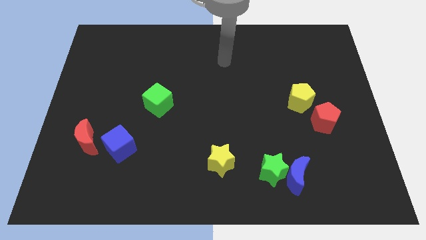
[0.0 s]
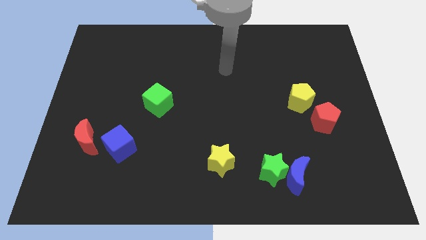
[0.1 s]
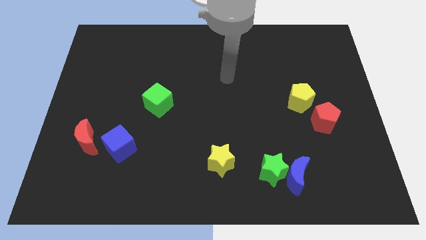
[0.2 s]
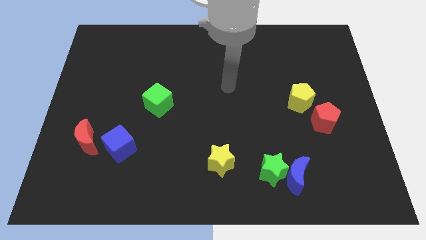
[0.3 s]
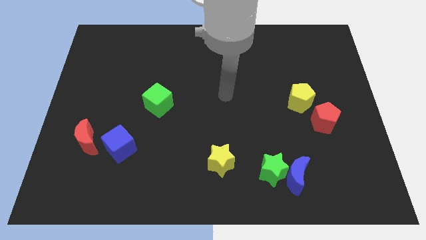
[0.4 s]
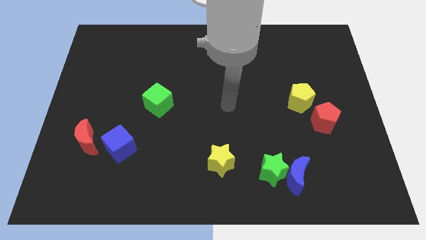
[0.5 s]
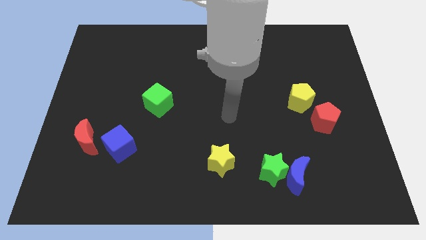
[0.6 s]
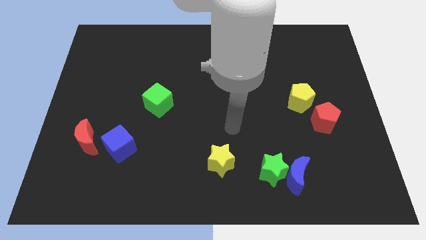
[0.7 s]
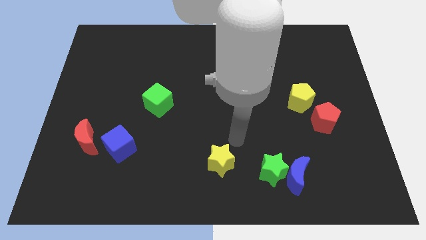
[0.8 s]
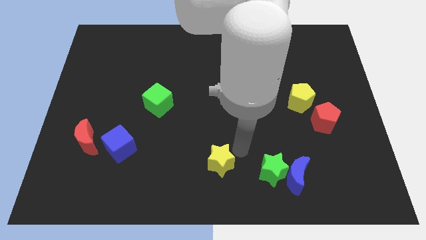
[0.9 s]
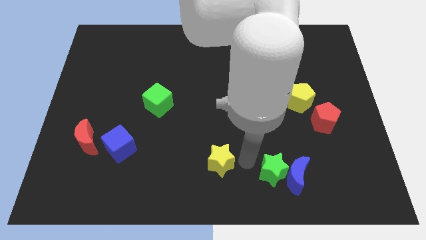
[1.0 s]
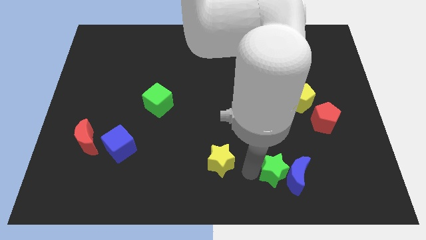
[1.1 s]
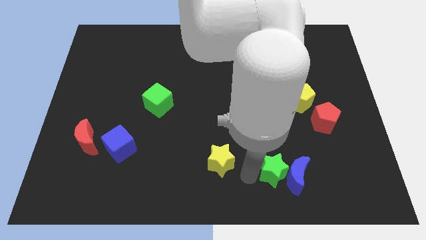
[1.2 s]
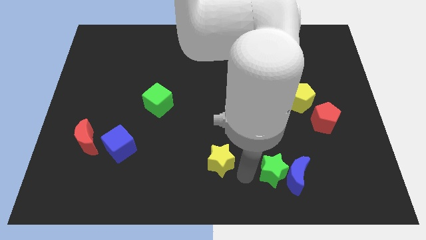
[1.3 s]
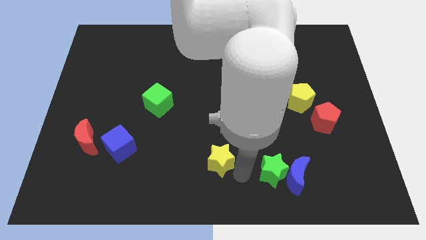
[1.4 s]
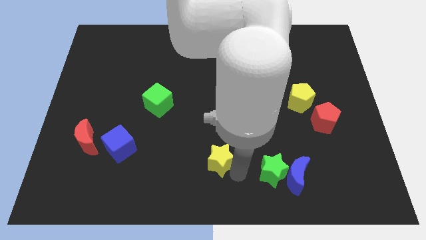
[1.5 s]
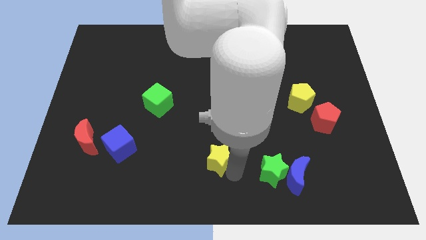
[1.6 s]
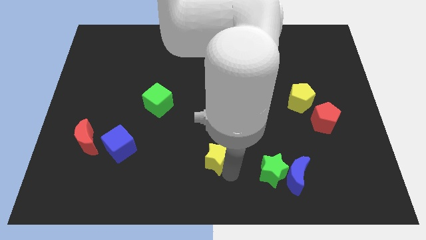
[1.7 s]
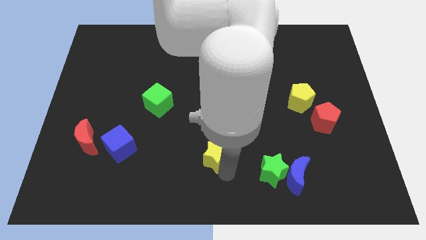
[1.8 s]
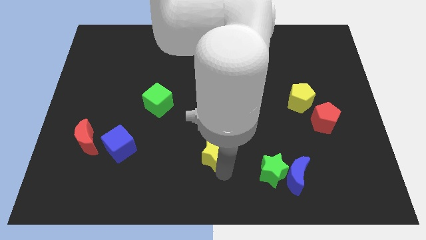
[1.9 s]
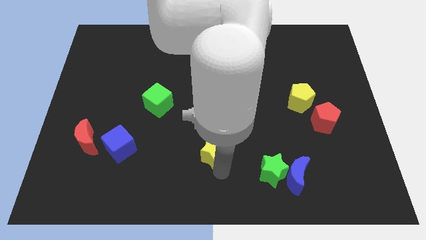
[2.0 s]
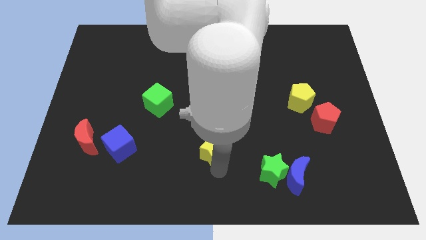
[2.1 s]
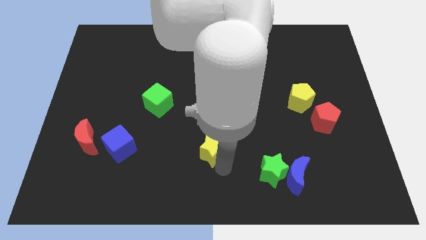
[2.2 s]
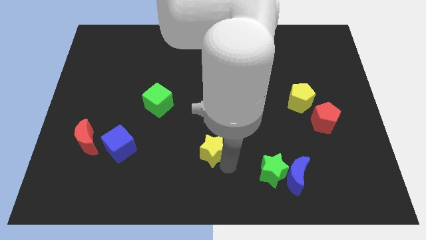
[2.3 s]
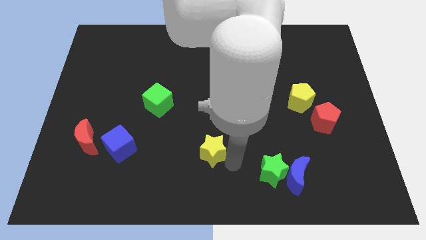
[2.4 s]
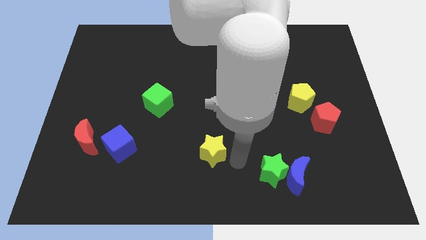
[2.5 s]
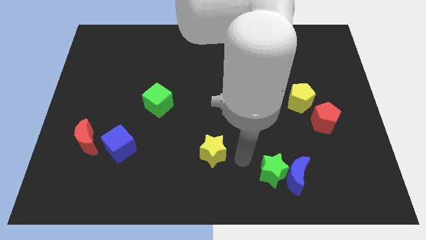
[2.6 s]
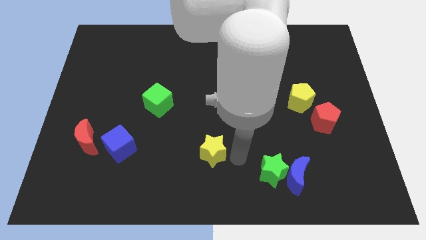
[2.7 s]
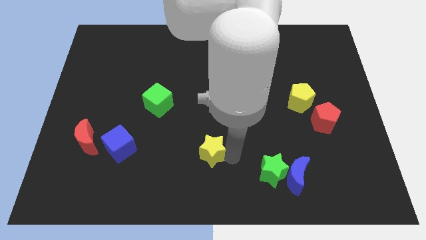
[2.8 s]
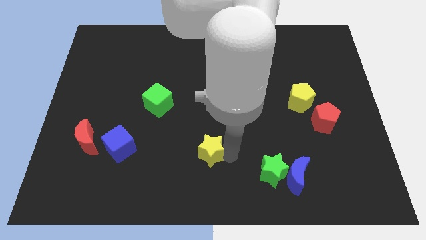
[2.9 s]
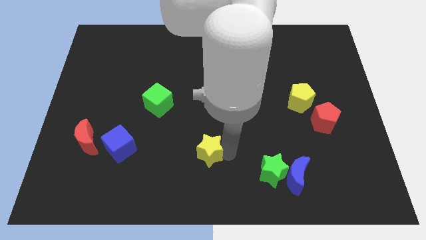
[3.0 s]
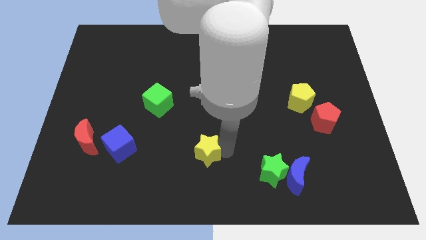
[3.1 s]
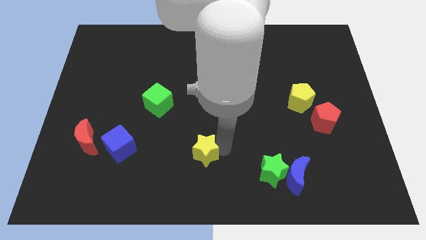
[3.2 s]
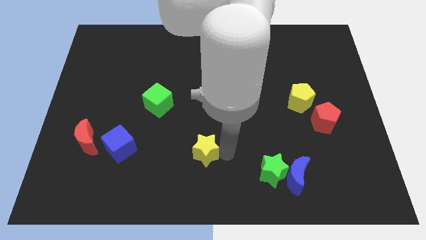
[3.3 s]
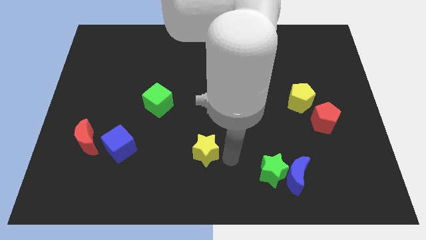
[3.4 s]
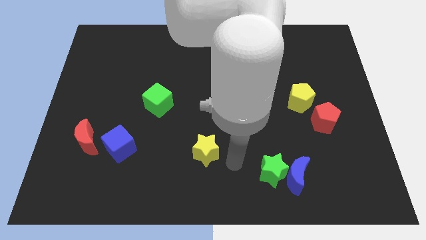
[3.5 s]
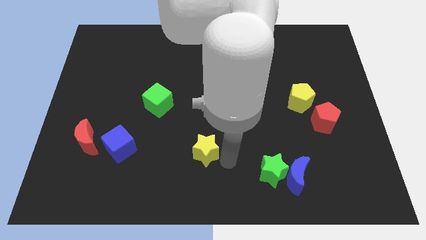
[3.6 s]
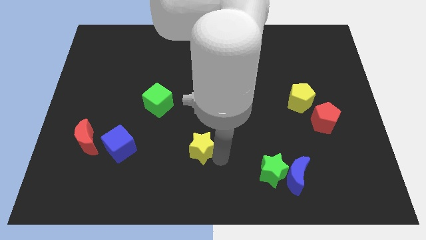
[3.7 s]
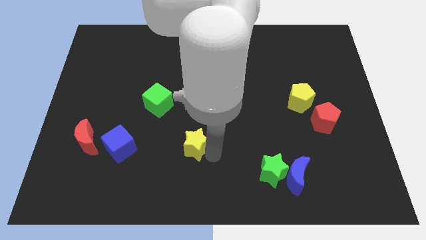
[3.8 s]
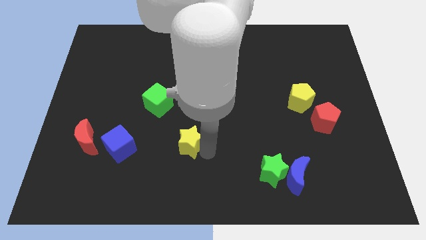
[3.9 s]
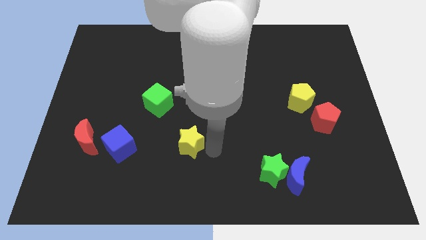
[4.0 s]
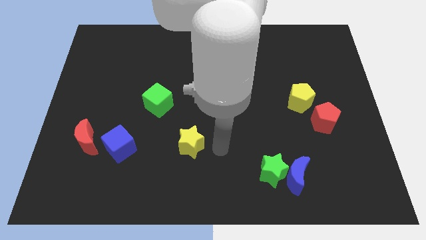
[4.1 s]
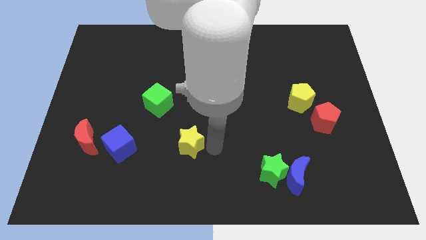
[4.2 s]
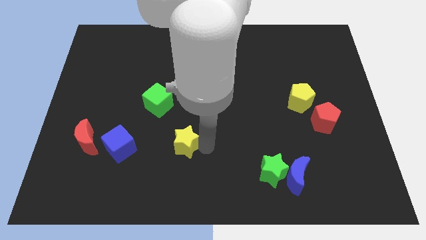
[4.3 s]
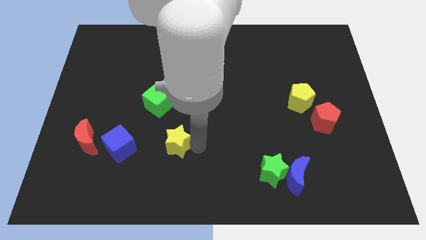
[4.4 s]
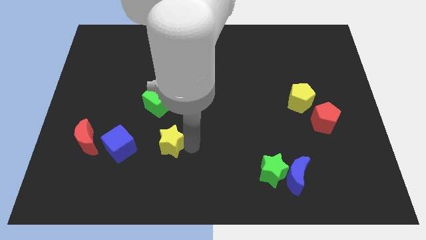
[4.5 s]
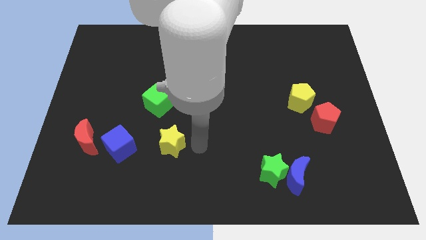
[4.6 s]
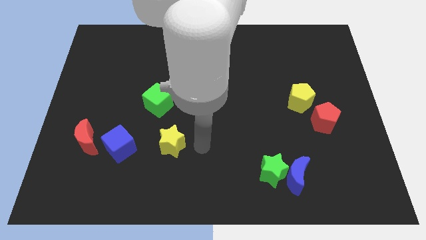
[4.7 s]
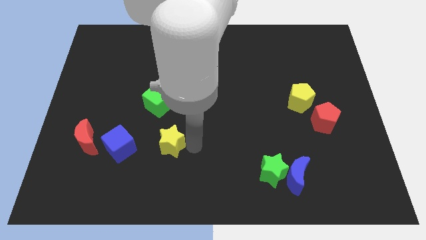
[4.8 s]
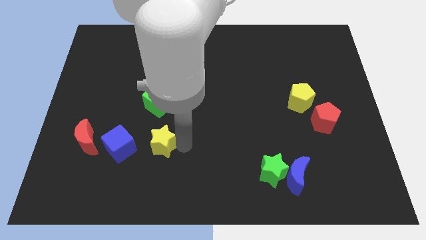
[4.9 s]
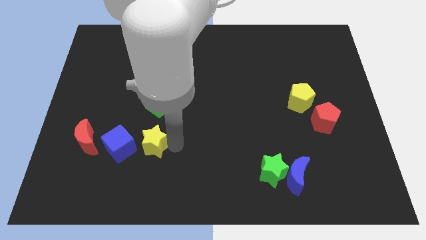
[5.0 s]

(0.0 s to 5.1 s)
move the yellow star to the right side of the red moon

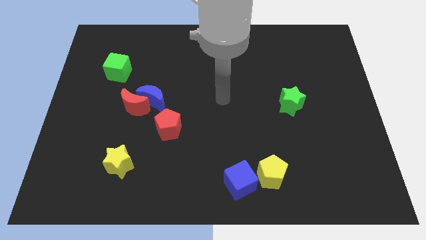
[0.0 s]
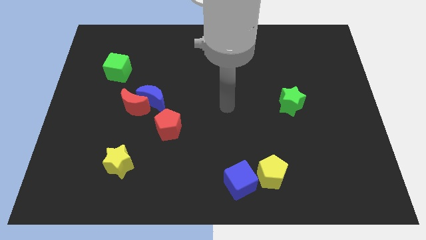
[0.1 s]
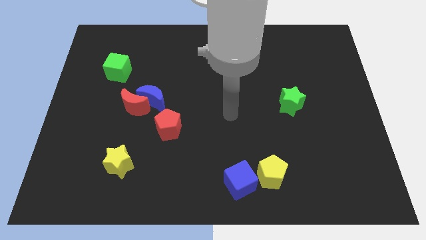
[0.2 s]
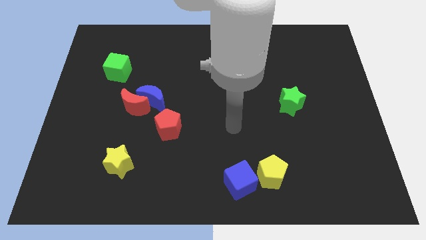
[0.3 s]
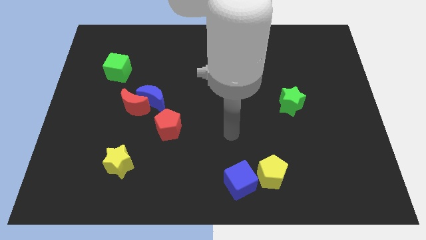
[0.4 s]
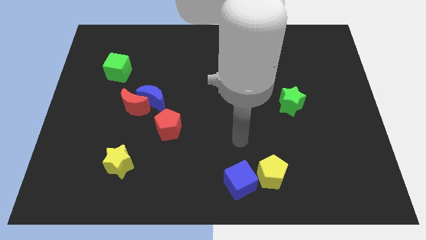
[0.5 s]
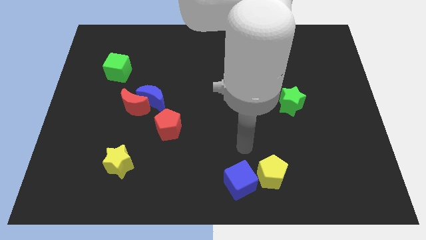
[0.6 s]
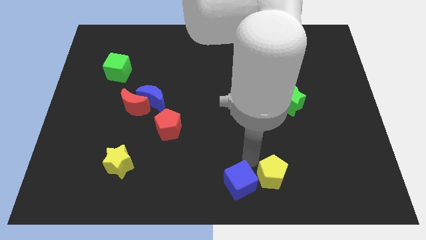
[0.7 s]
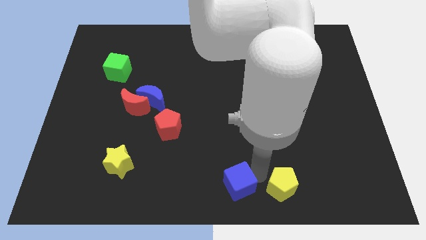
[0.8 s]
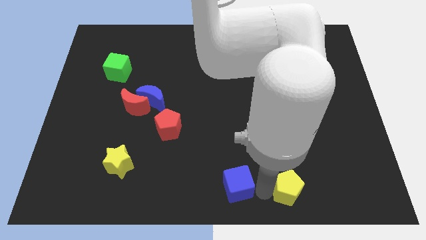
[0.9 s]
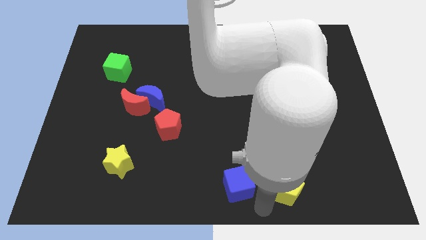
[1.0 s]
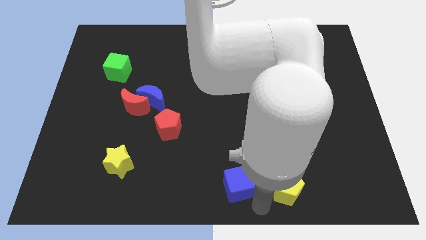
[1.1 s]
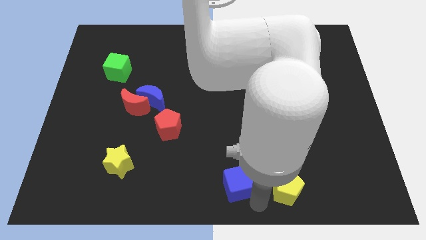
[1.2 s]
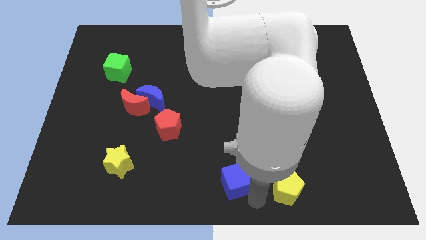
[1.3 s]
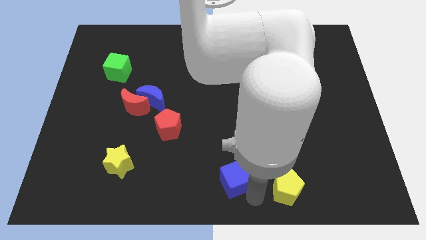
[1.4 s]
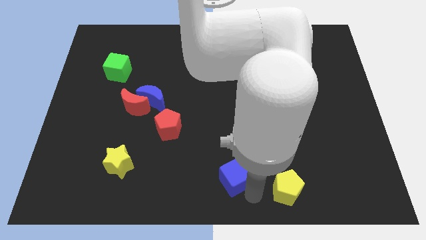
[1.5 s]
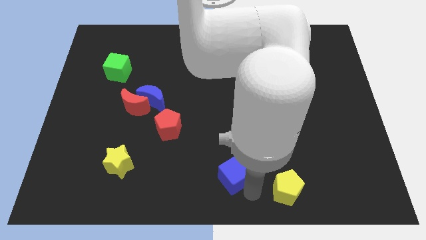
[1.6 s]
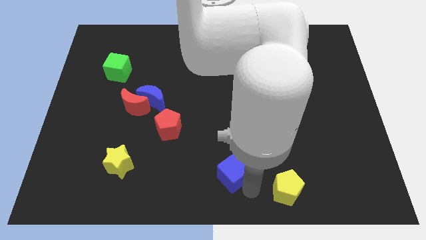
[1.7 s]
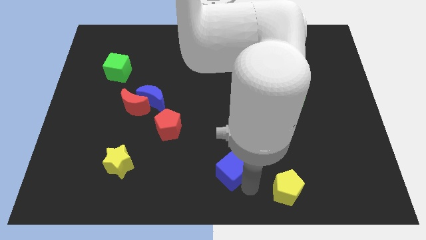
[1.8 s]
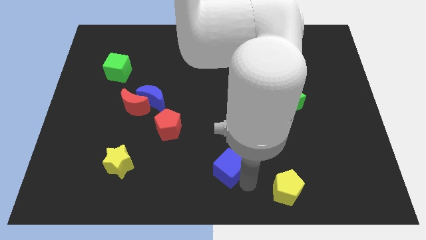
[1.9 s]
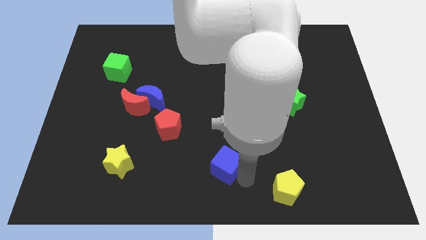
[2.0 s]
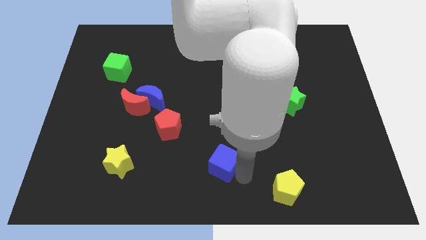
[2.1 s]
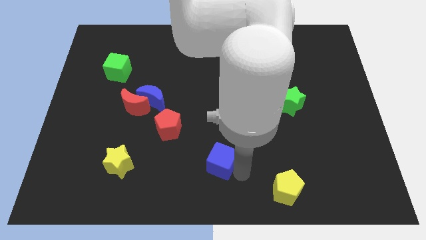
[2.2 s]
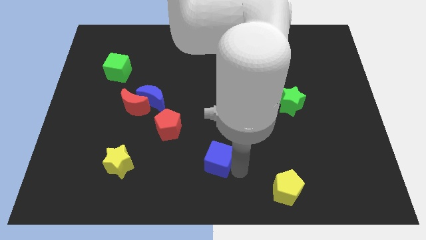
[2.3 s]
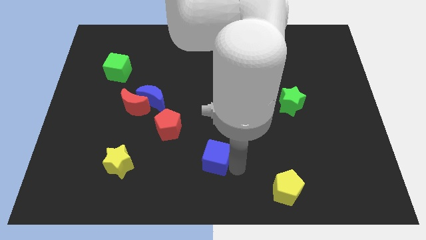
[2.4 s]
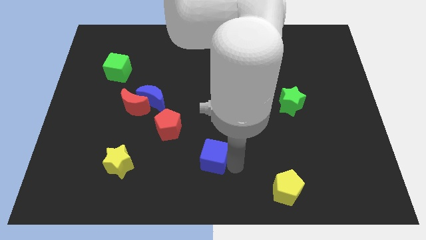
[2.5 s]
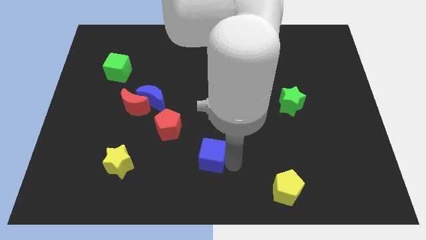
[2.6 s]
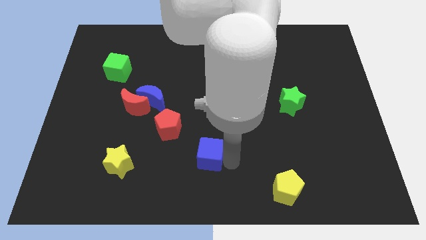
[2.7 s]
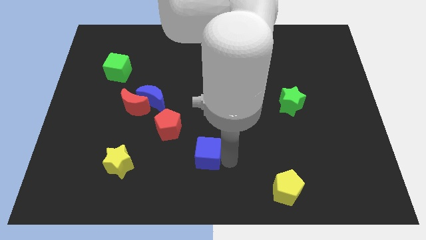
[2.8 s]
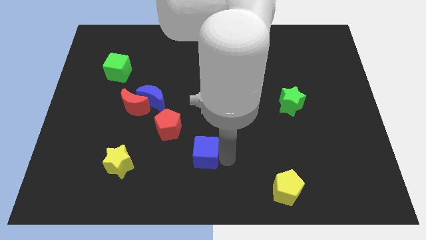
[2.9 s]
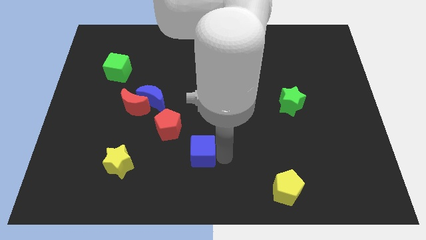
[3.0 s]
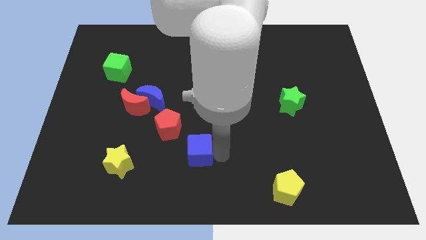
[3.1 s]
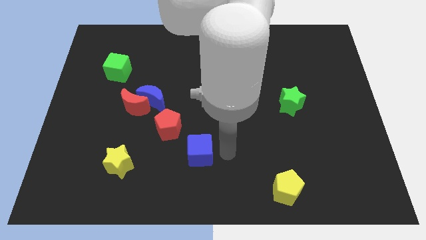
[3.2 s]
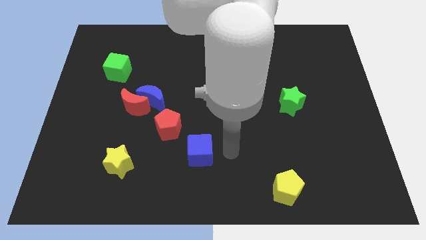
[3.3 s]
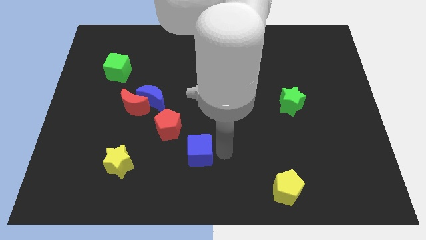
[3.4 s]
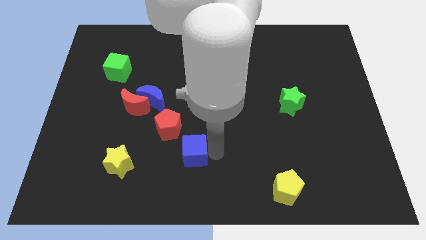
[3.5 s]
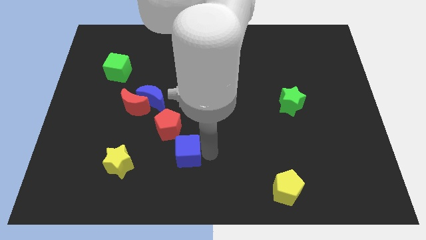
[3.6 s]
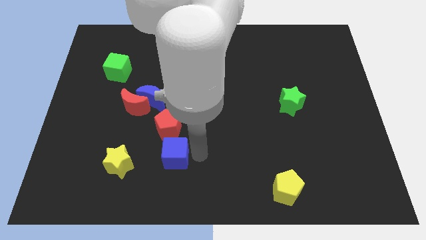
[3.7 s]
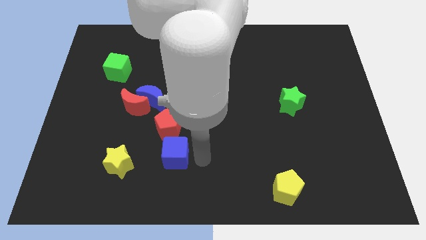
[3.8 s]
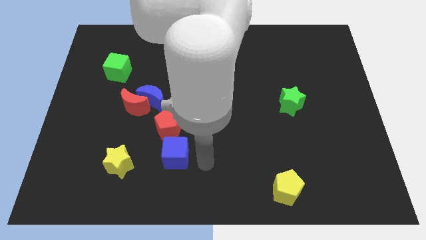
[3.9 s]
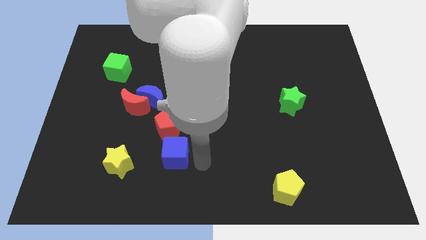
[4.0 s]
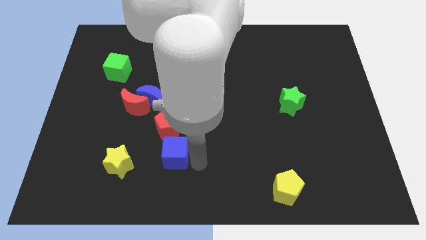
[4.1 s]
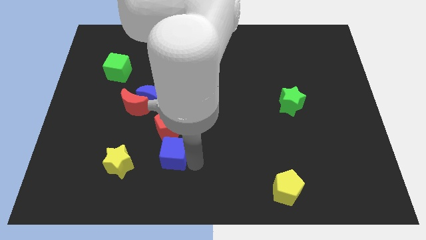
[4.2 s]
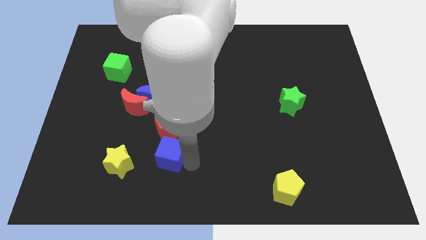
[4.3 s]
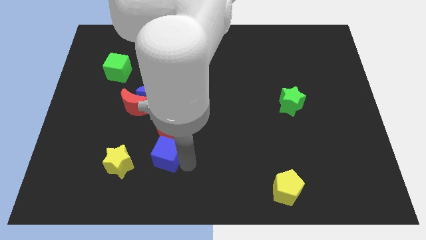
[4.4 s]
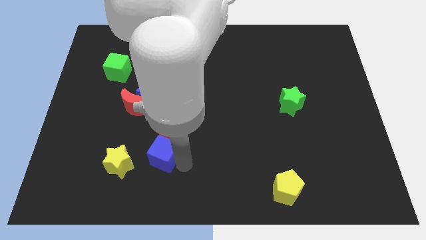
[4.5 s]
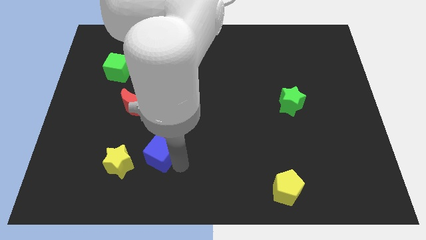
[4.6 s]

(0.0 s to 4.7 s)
put the blue cube to the bottom left of the red pentagon
